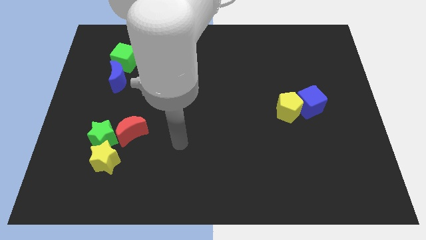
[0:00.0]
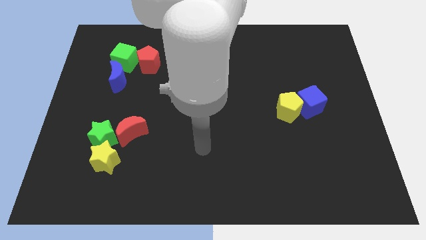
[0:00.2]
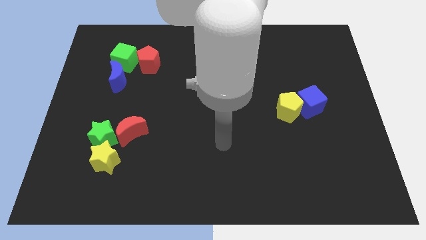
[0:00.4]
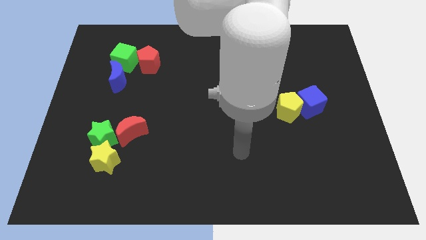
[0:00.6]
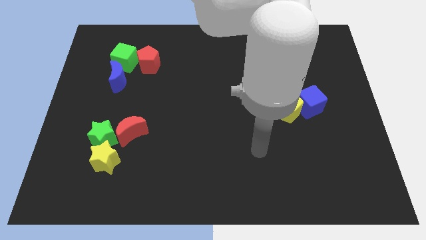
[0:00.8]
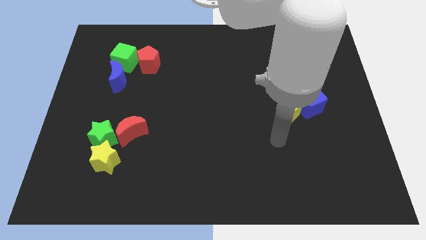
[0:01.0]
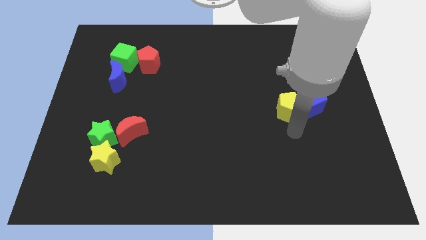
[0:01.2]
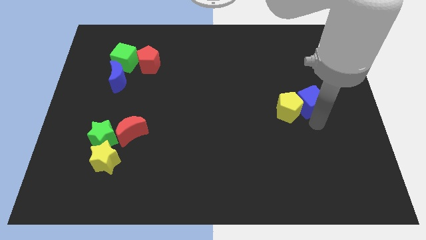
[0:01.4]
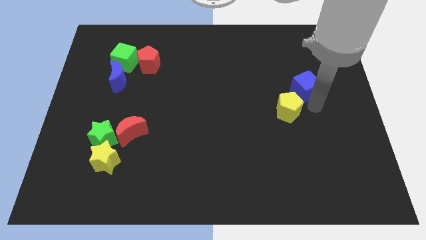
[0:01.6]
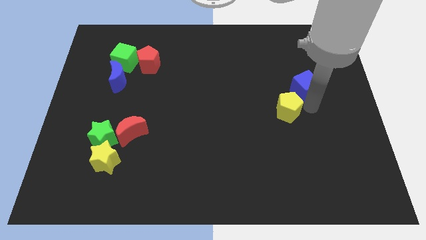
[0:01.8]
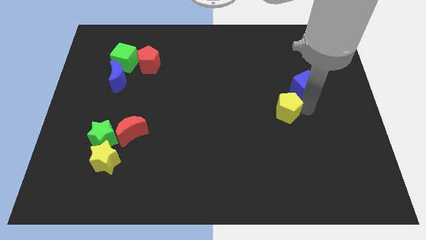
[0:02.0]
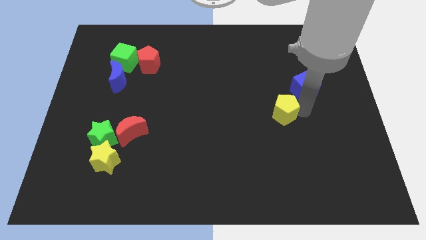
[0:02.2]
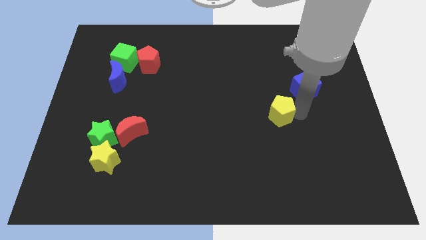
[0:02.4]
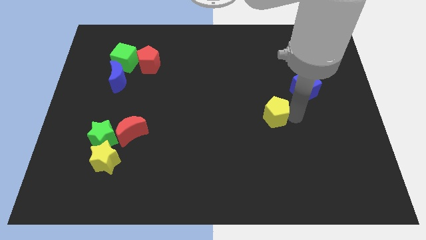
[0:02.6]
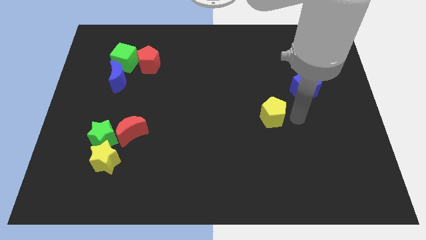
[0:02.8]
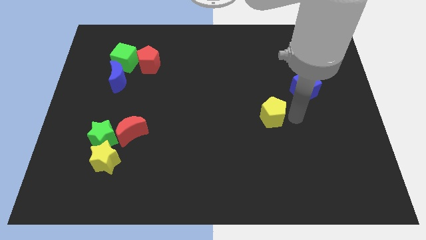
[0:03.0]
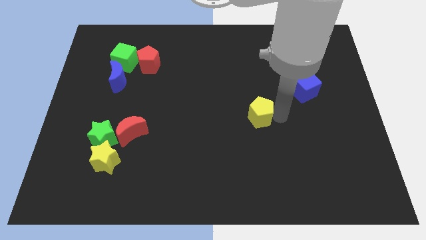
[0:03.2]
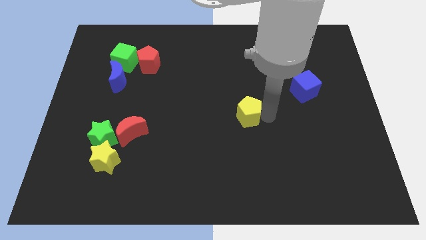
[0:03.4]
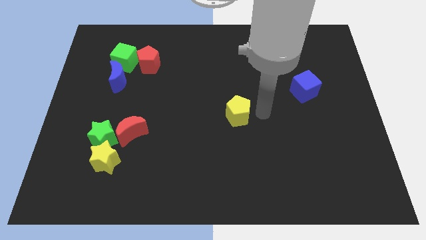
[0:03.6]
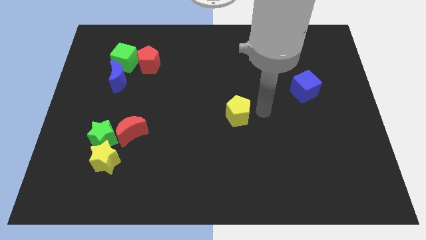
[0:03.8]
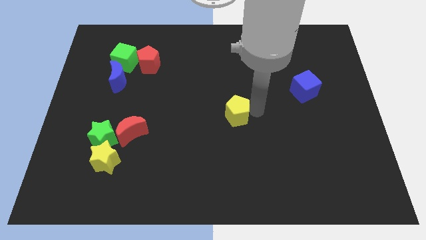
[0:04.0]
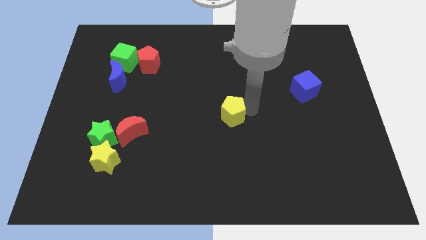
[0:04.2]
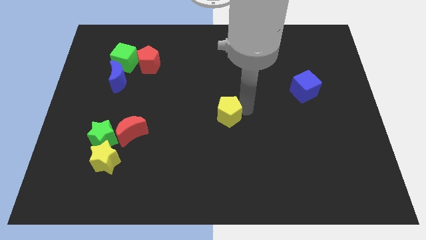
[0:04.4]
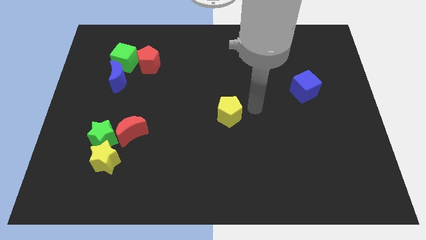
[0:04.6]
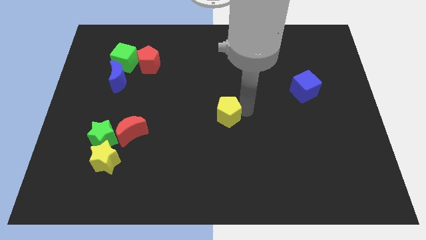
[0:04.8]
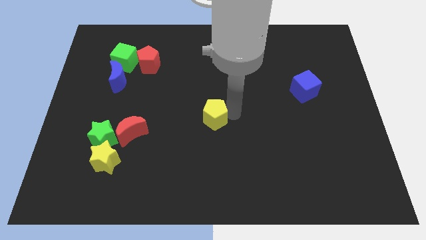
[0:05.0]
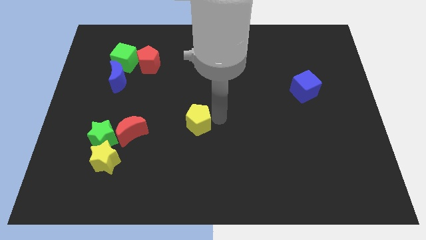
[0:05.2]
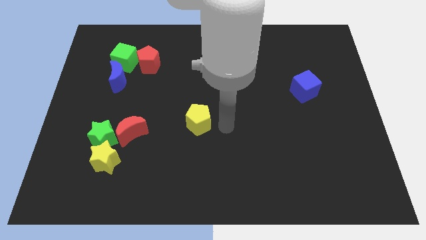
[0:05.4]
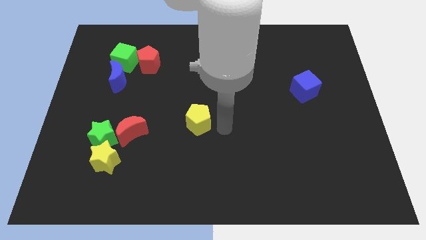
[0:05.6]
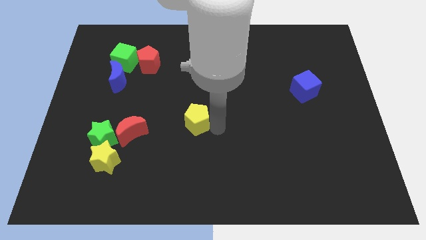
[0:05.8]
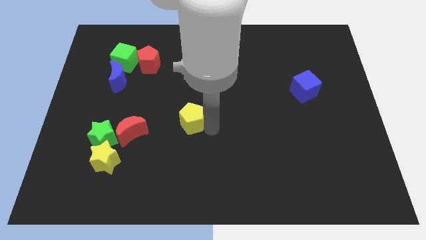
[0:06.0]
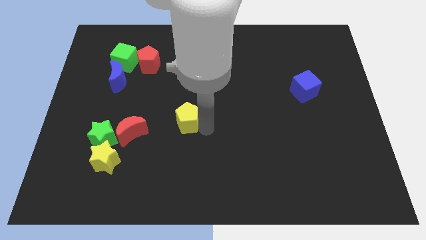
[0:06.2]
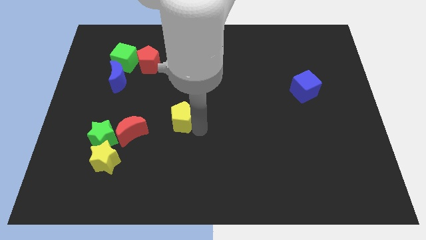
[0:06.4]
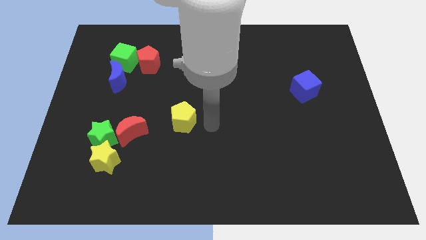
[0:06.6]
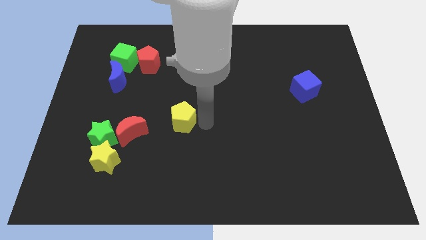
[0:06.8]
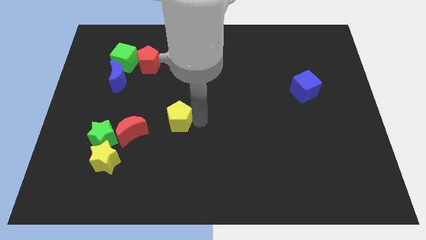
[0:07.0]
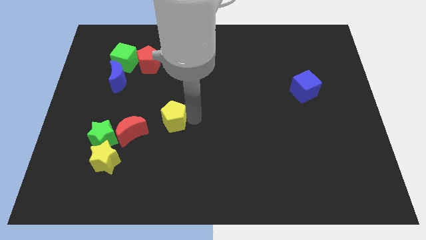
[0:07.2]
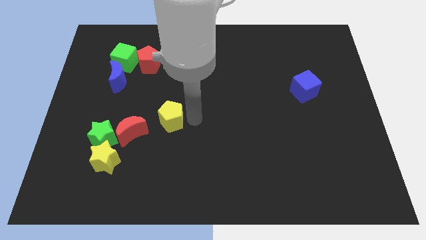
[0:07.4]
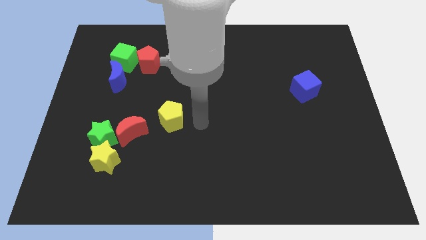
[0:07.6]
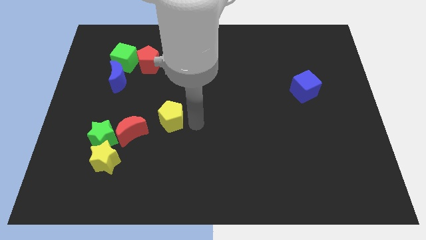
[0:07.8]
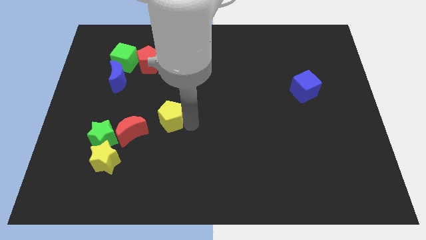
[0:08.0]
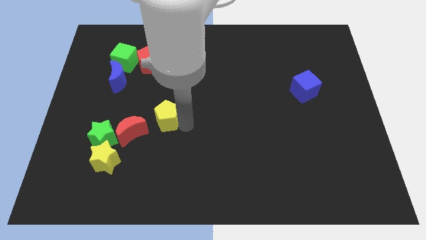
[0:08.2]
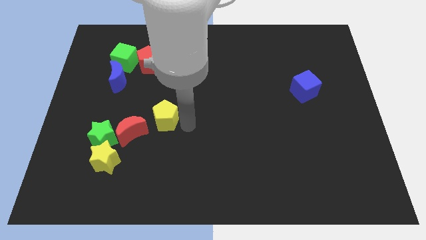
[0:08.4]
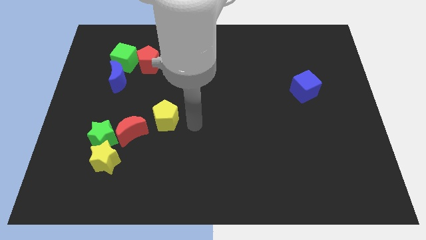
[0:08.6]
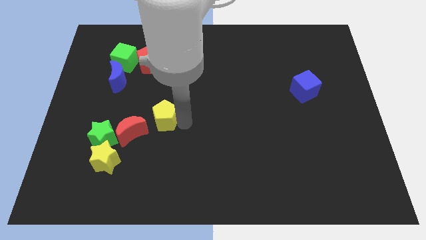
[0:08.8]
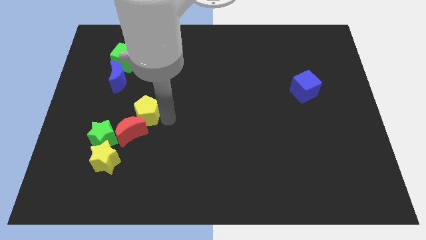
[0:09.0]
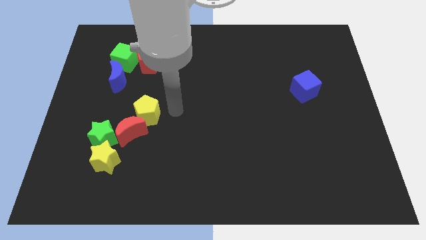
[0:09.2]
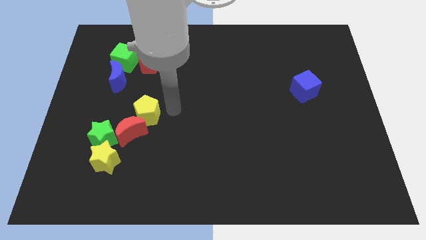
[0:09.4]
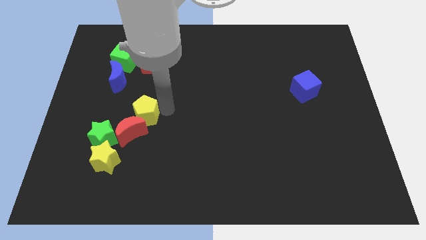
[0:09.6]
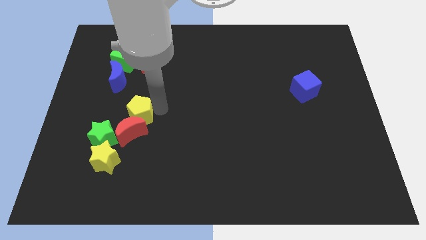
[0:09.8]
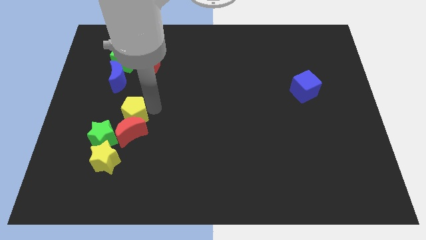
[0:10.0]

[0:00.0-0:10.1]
put the yellow pentagon above the yellow star

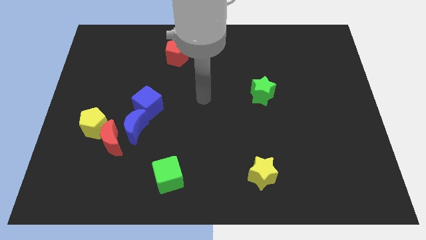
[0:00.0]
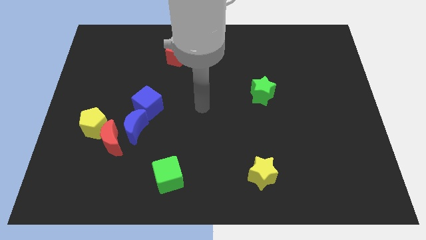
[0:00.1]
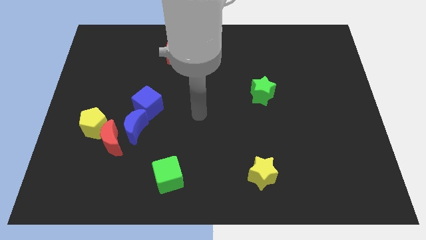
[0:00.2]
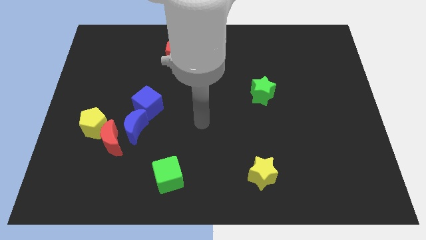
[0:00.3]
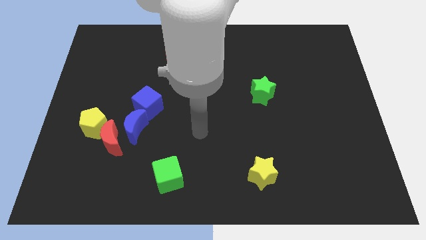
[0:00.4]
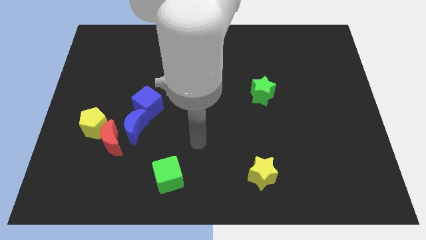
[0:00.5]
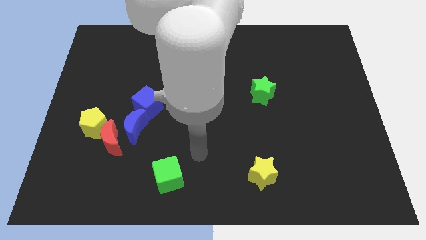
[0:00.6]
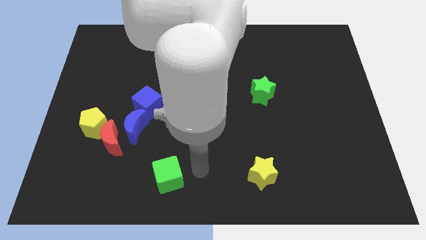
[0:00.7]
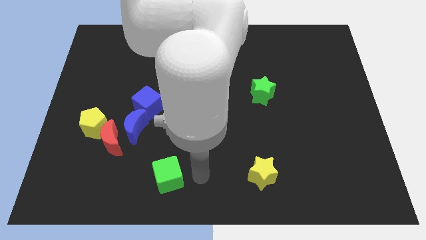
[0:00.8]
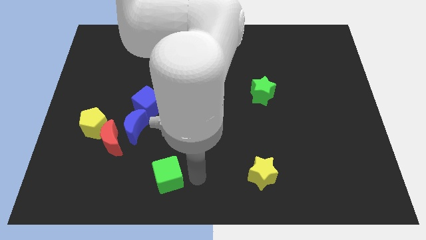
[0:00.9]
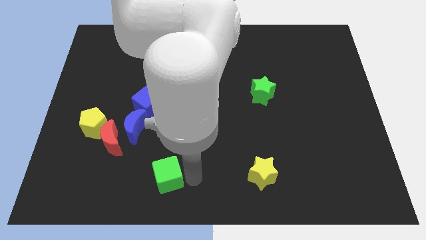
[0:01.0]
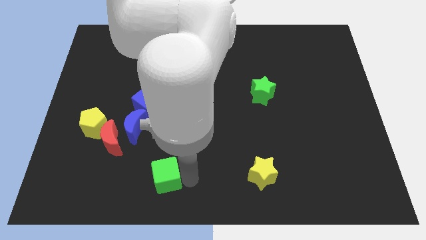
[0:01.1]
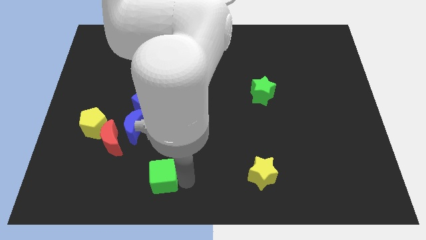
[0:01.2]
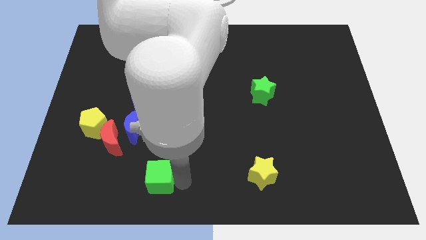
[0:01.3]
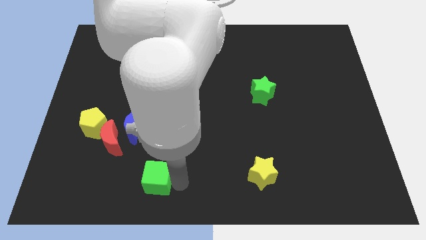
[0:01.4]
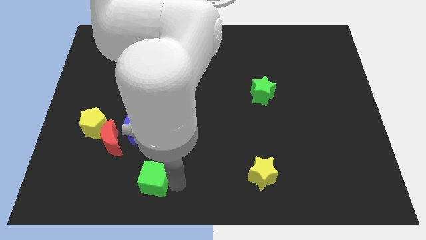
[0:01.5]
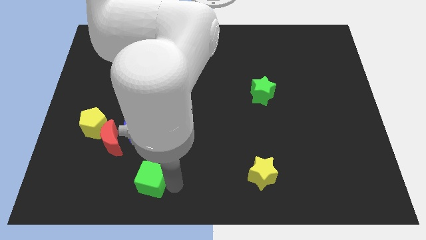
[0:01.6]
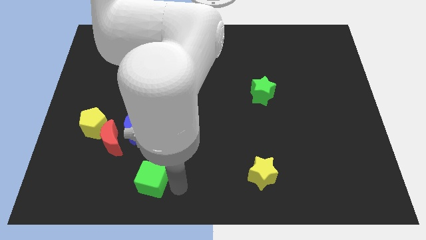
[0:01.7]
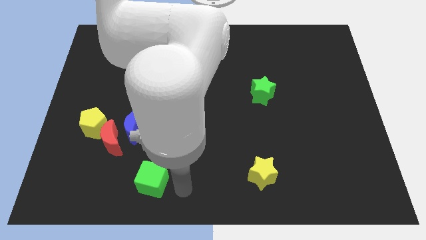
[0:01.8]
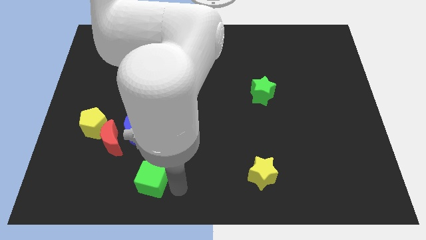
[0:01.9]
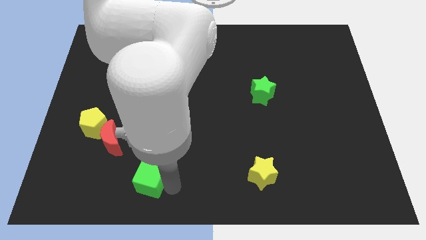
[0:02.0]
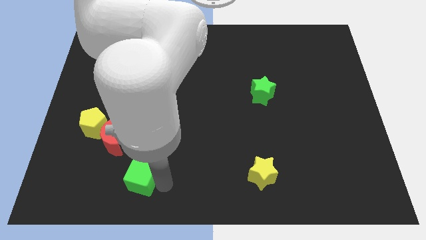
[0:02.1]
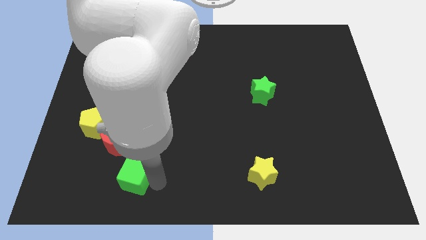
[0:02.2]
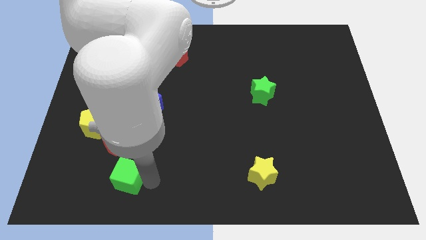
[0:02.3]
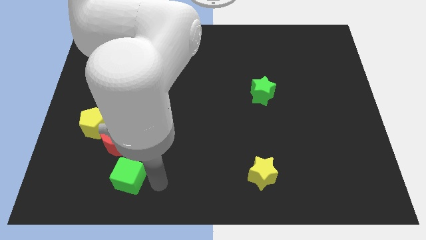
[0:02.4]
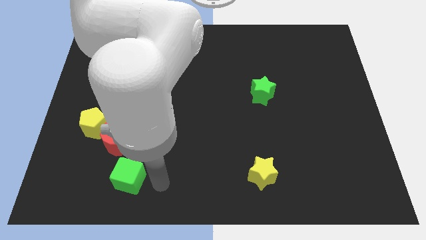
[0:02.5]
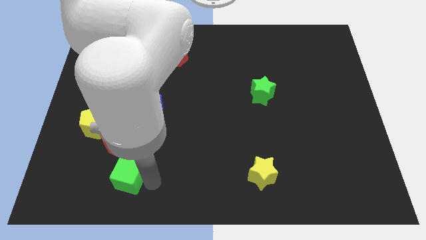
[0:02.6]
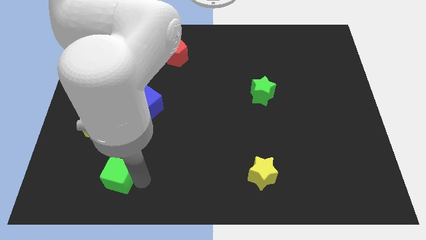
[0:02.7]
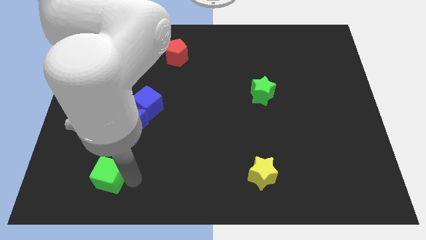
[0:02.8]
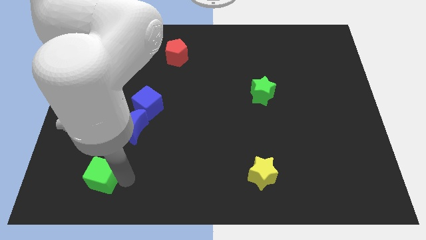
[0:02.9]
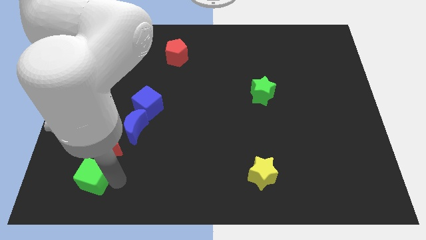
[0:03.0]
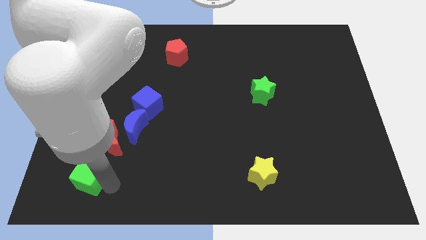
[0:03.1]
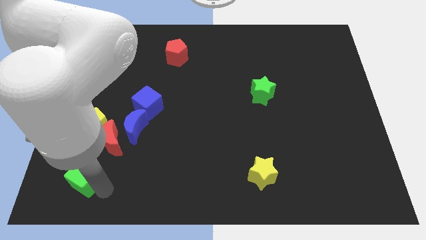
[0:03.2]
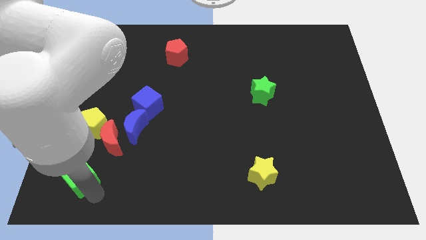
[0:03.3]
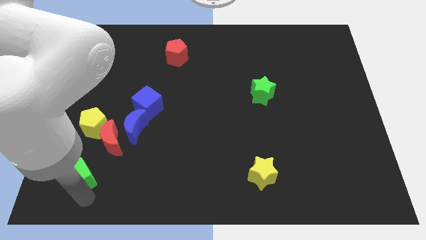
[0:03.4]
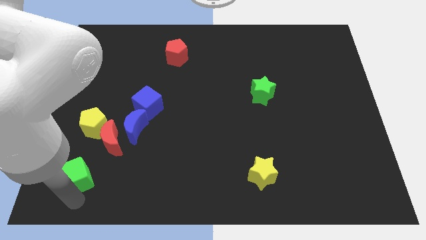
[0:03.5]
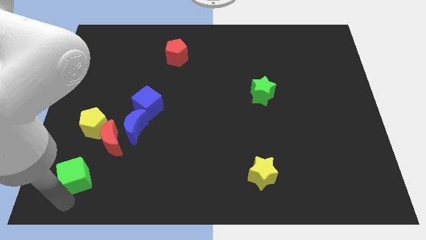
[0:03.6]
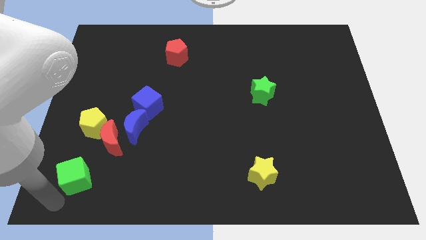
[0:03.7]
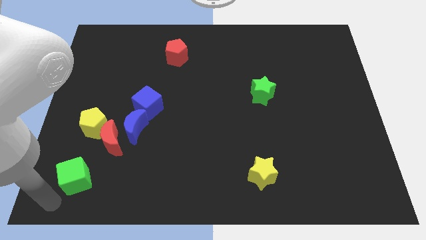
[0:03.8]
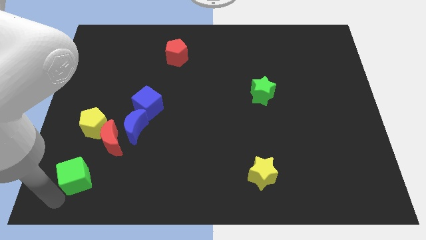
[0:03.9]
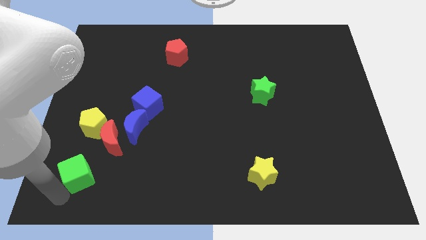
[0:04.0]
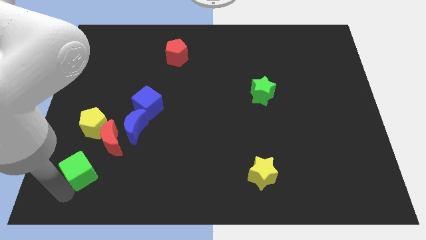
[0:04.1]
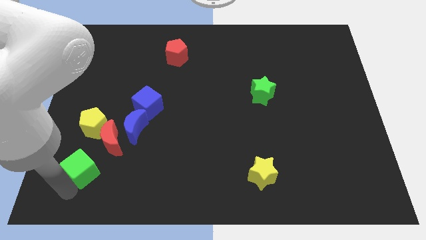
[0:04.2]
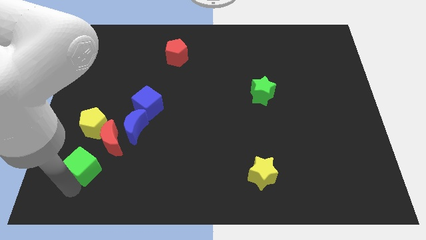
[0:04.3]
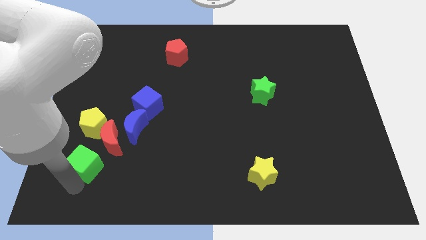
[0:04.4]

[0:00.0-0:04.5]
move the green cube to the bottom left of the blue moon
